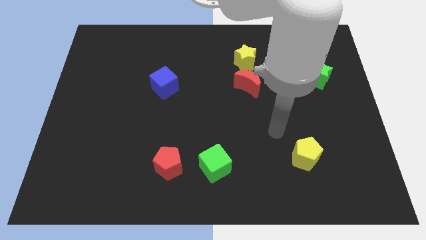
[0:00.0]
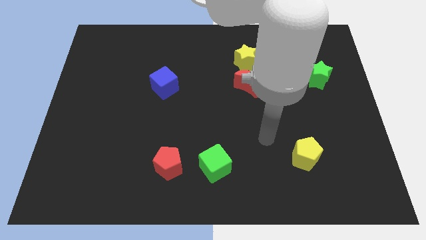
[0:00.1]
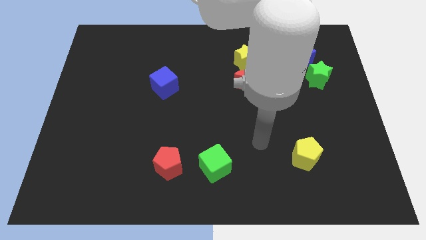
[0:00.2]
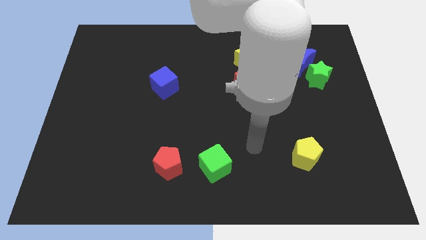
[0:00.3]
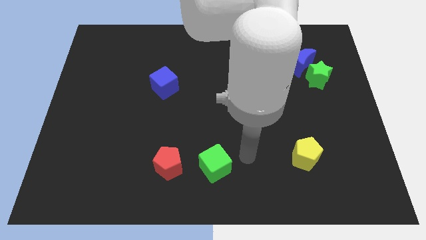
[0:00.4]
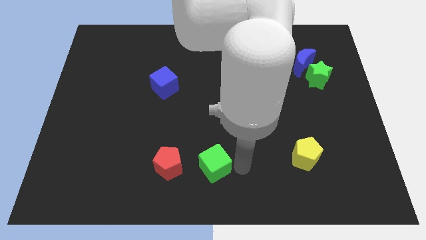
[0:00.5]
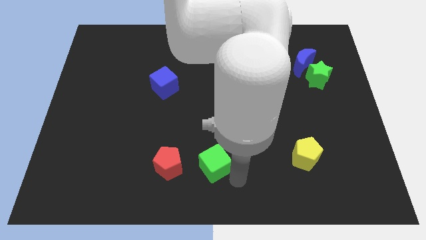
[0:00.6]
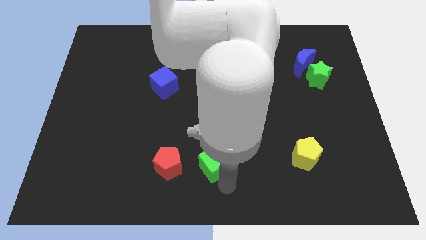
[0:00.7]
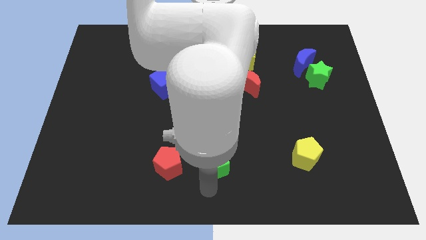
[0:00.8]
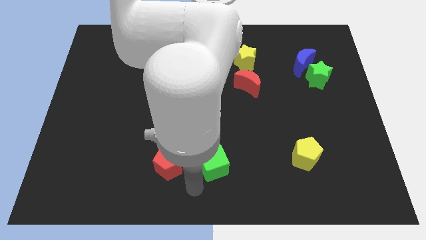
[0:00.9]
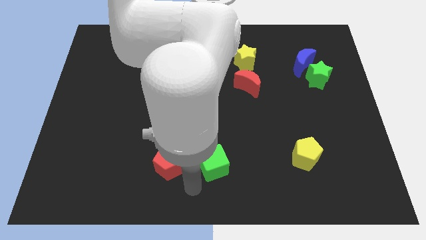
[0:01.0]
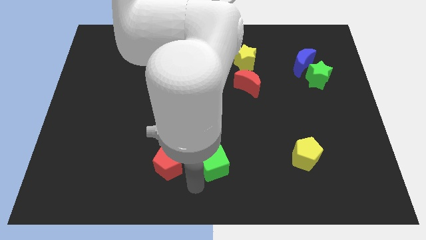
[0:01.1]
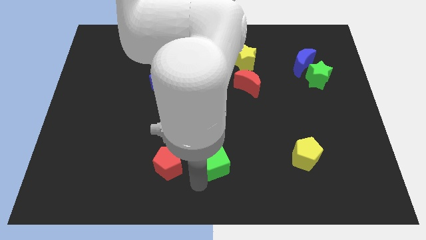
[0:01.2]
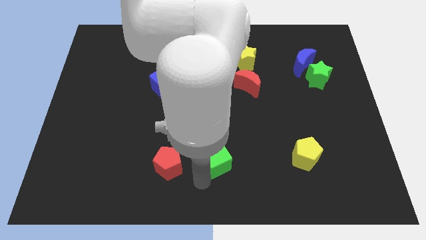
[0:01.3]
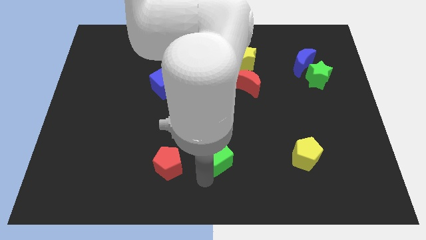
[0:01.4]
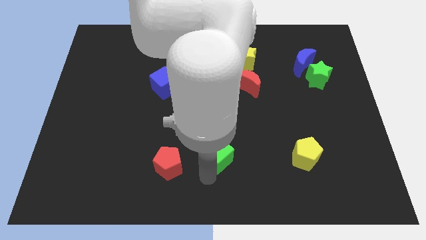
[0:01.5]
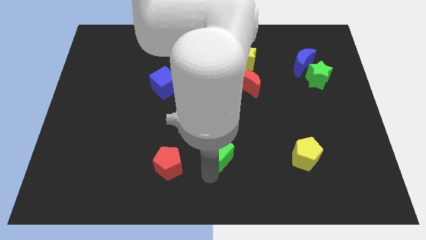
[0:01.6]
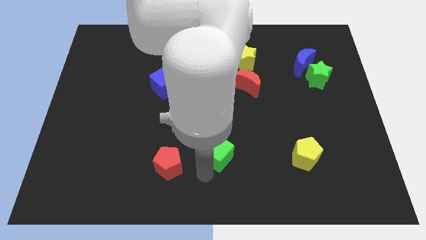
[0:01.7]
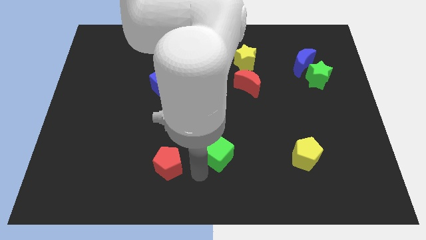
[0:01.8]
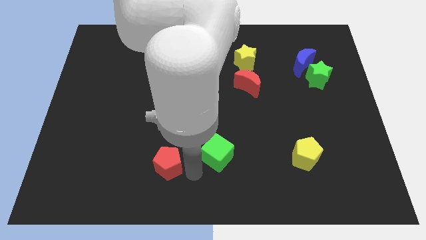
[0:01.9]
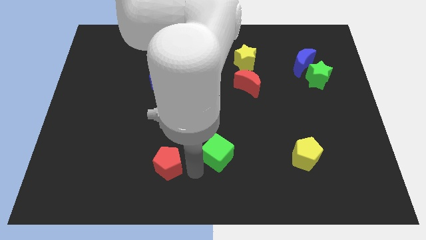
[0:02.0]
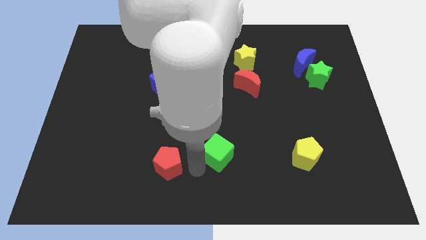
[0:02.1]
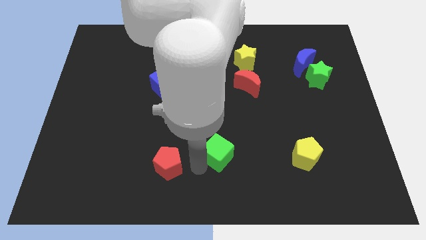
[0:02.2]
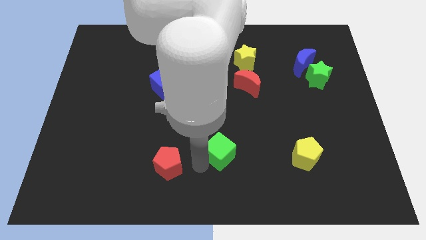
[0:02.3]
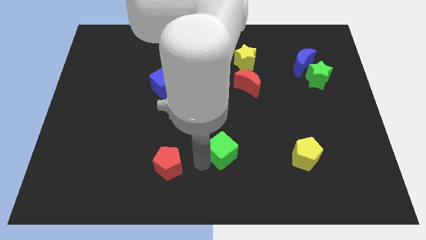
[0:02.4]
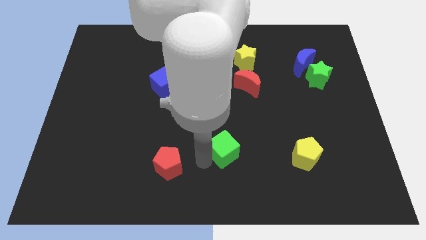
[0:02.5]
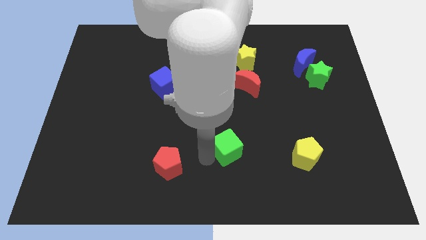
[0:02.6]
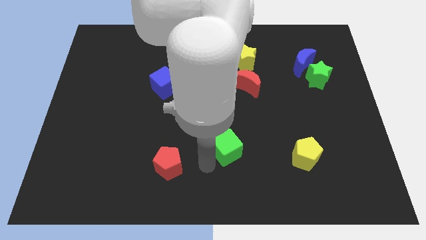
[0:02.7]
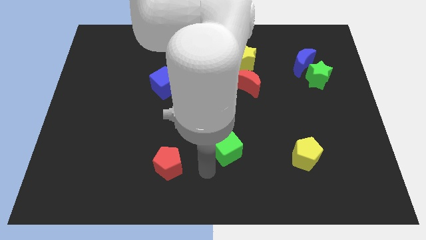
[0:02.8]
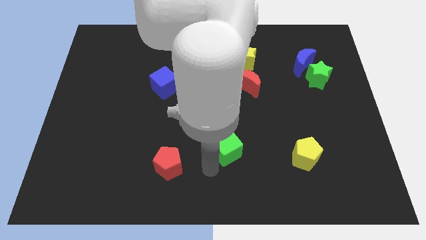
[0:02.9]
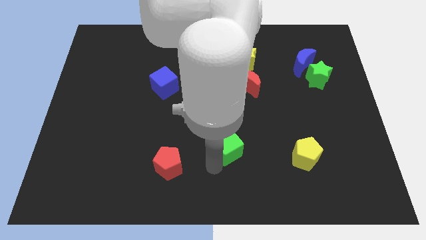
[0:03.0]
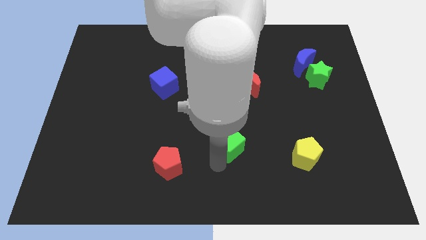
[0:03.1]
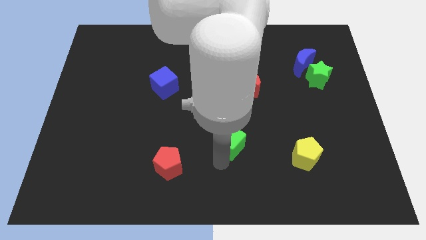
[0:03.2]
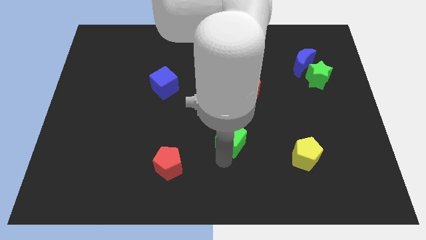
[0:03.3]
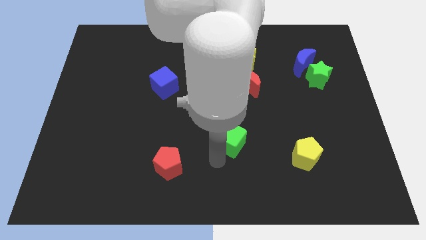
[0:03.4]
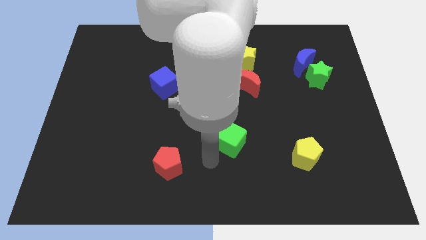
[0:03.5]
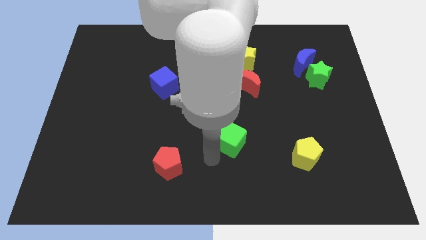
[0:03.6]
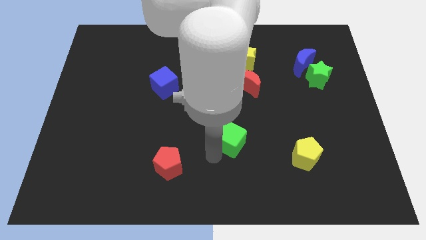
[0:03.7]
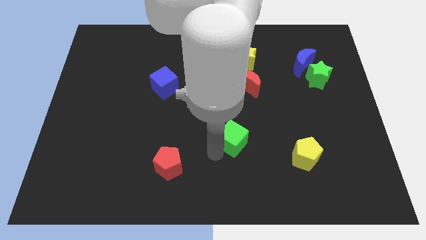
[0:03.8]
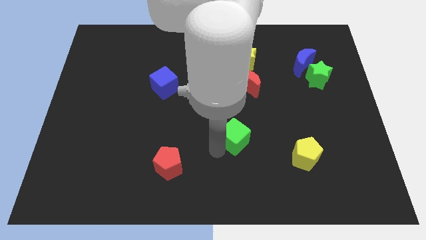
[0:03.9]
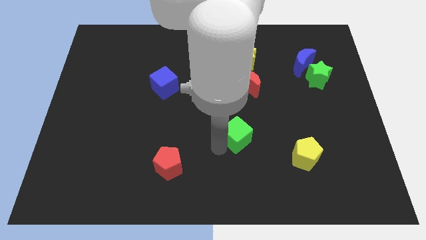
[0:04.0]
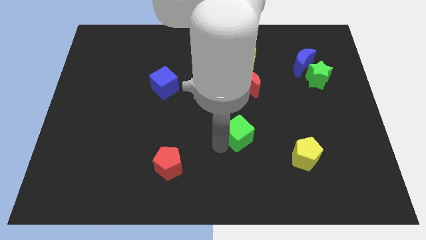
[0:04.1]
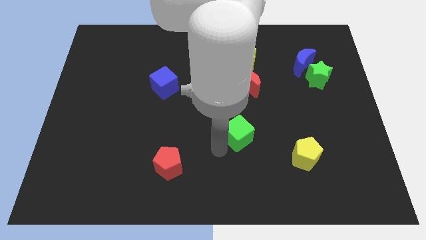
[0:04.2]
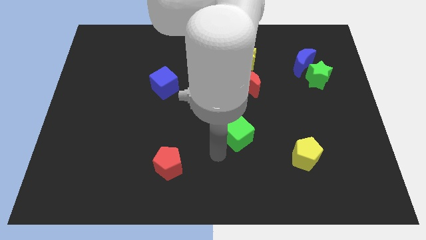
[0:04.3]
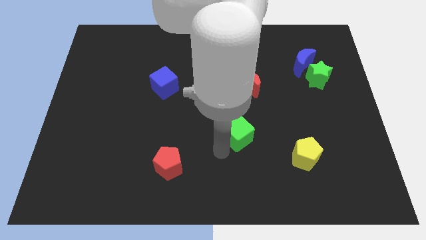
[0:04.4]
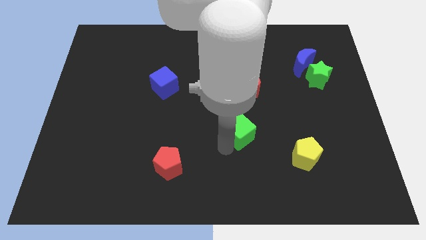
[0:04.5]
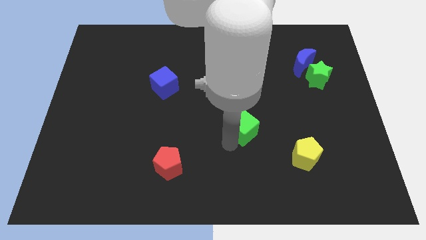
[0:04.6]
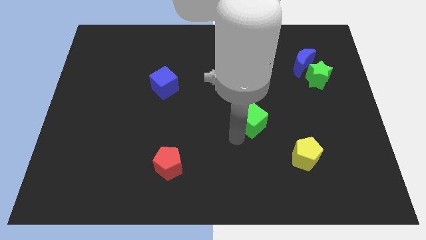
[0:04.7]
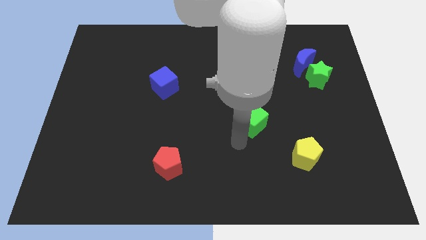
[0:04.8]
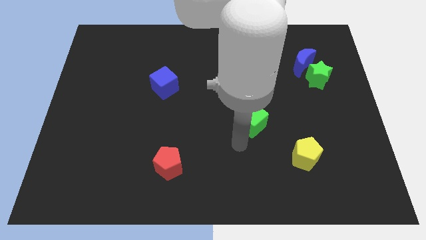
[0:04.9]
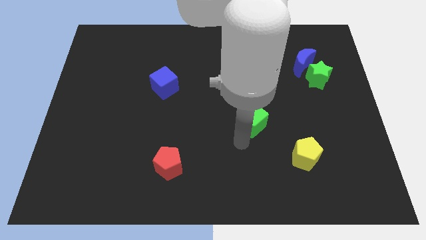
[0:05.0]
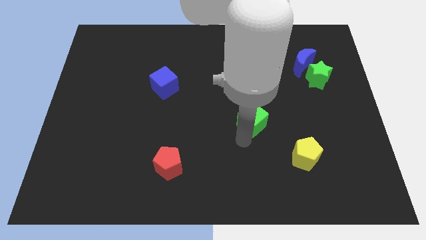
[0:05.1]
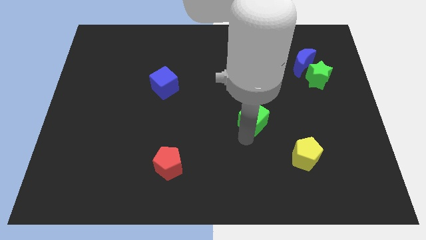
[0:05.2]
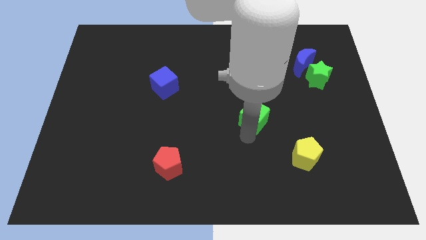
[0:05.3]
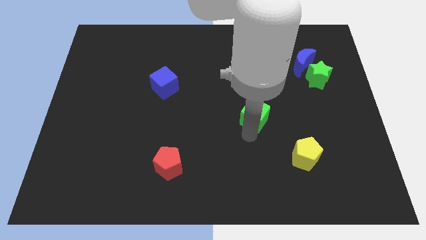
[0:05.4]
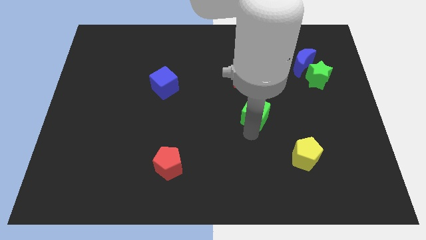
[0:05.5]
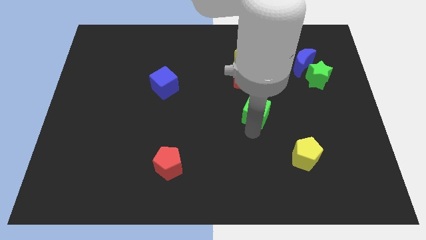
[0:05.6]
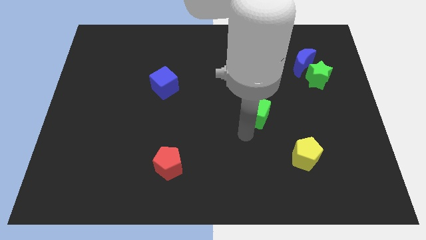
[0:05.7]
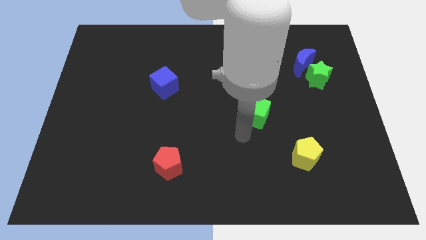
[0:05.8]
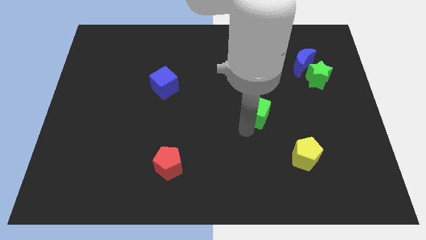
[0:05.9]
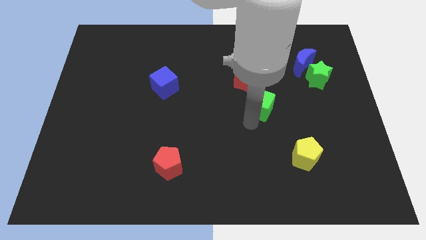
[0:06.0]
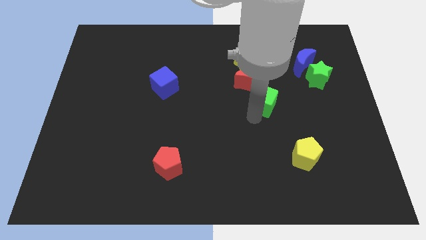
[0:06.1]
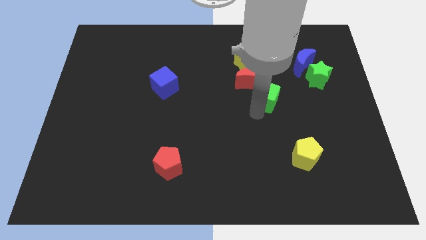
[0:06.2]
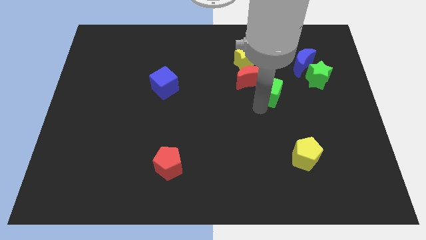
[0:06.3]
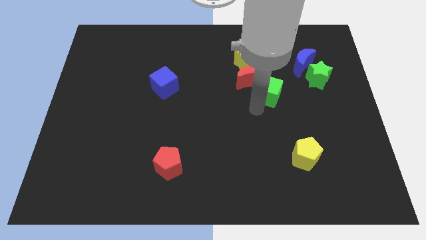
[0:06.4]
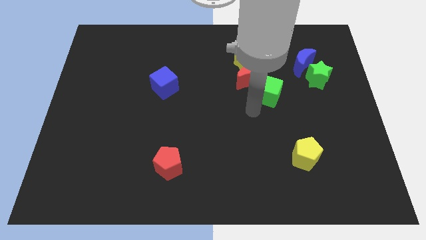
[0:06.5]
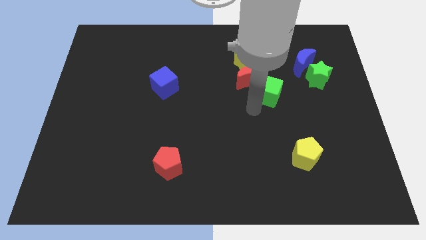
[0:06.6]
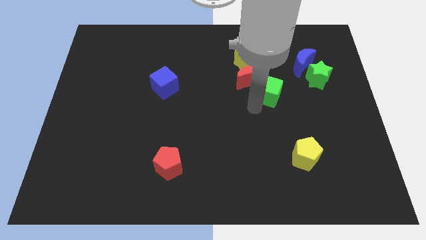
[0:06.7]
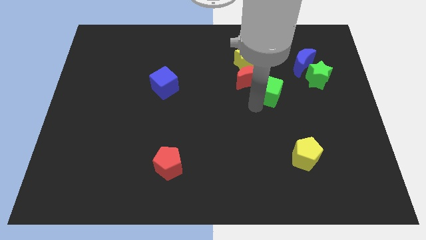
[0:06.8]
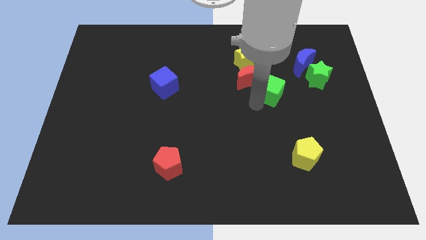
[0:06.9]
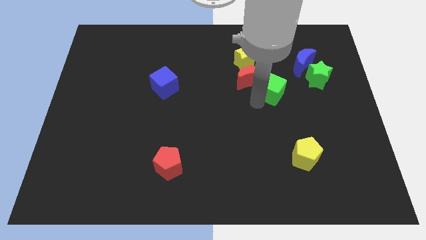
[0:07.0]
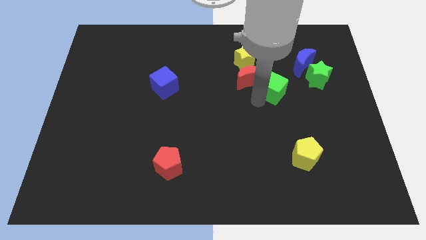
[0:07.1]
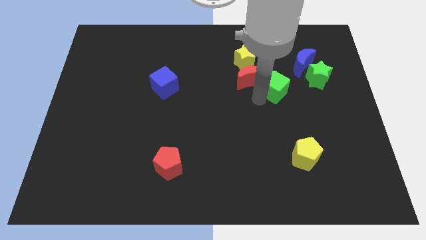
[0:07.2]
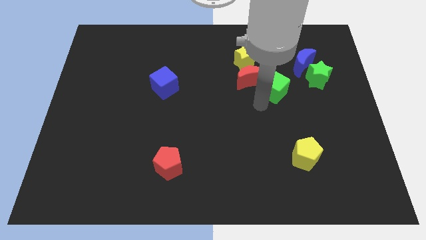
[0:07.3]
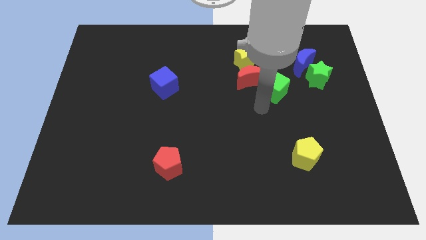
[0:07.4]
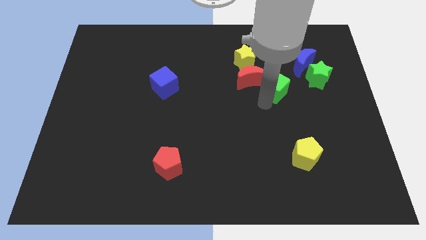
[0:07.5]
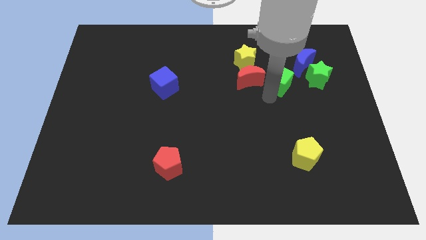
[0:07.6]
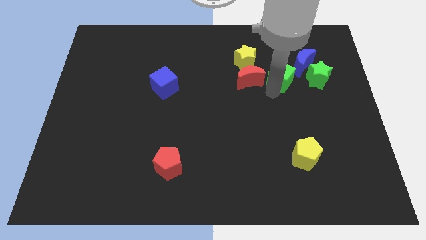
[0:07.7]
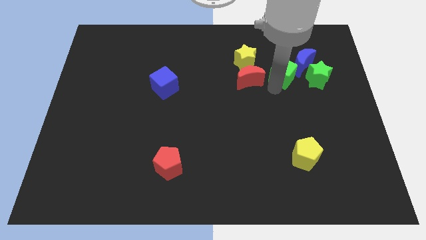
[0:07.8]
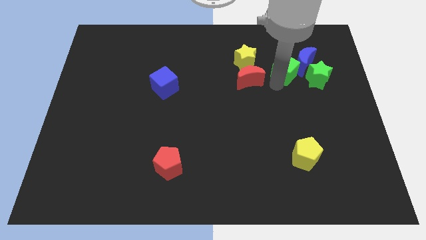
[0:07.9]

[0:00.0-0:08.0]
push the green cube towards the blue moon
